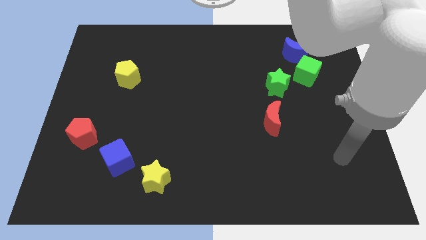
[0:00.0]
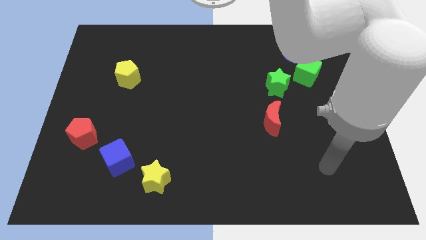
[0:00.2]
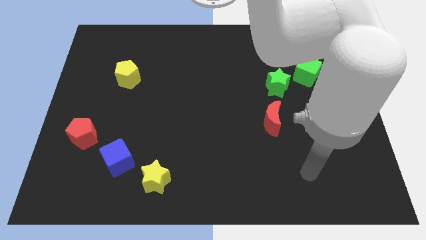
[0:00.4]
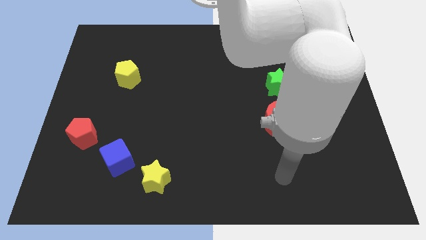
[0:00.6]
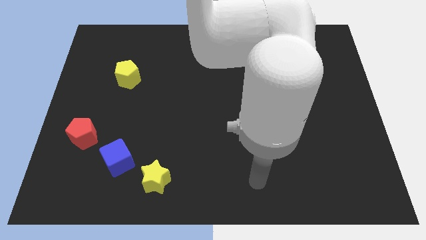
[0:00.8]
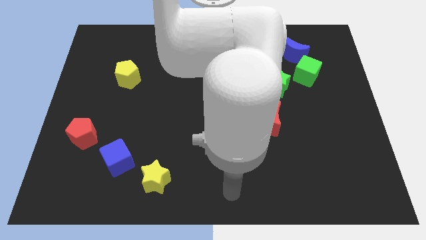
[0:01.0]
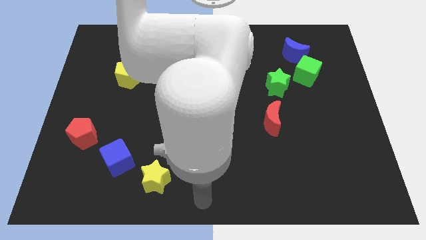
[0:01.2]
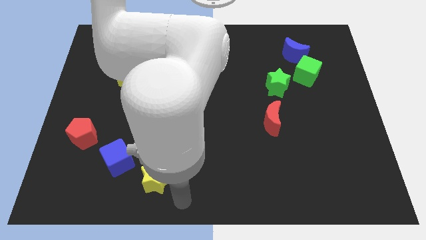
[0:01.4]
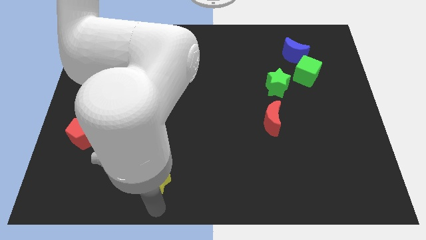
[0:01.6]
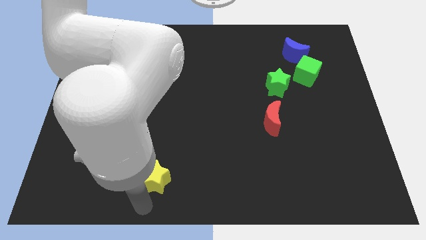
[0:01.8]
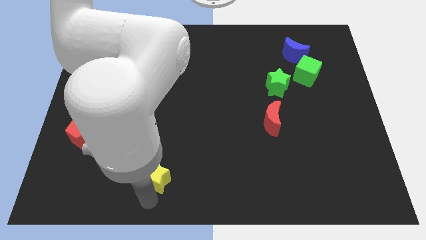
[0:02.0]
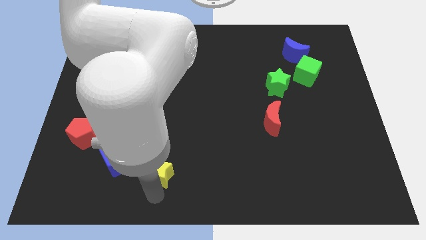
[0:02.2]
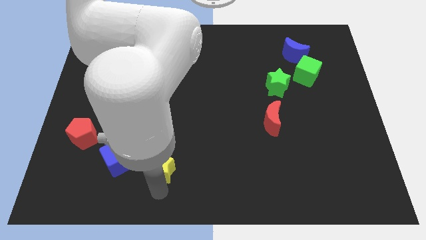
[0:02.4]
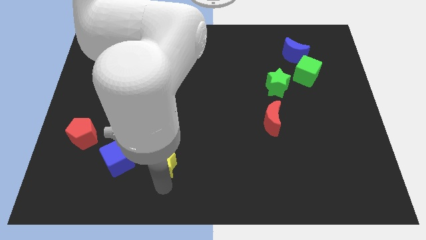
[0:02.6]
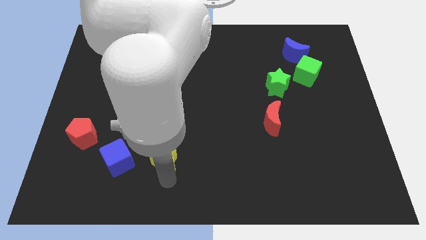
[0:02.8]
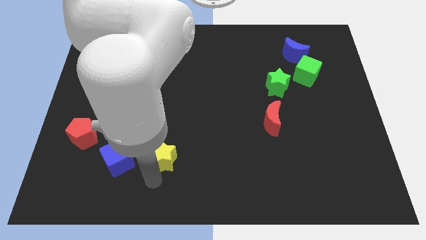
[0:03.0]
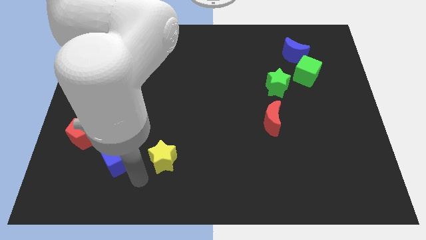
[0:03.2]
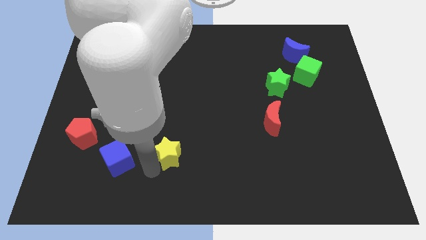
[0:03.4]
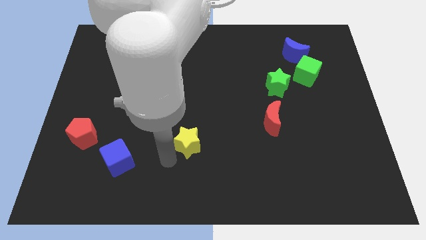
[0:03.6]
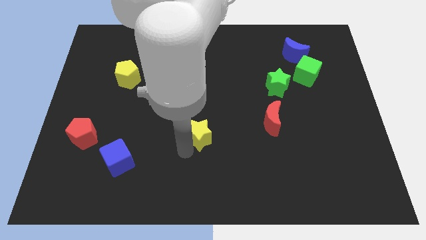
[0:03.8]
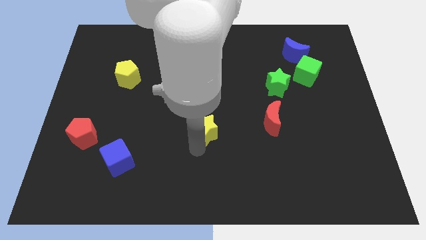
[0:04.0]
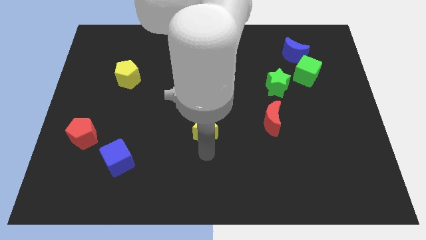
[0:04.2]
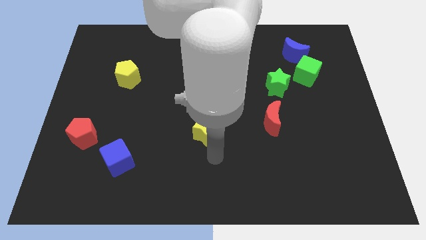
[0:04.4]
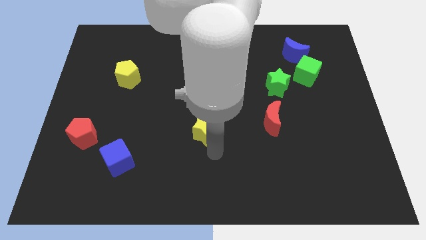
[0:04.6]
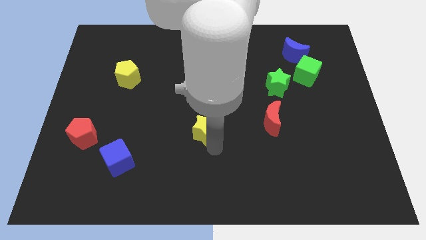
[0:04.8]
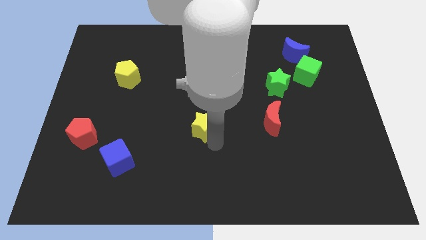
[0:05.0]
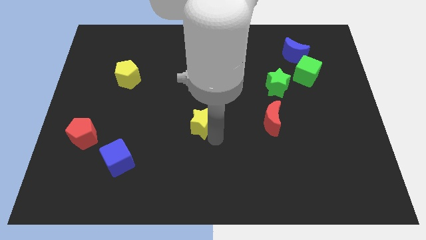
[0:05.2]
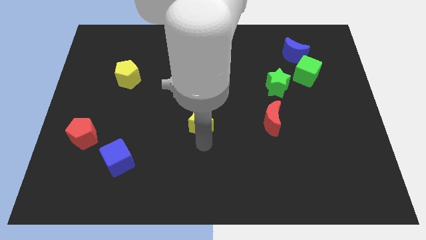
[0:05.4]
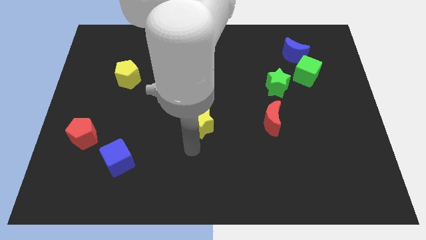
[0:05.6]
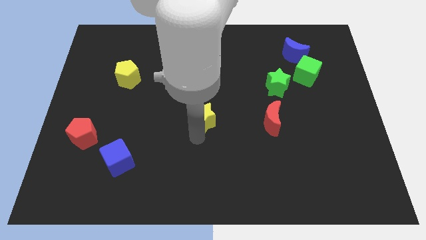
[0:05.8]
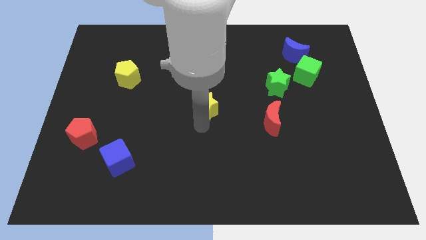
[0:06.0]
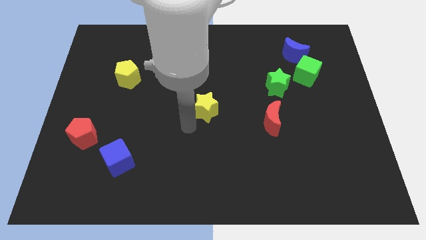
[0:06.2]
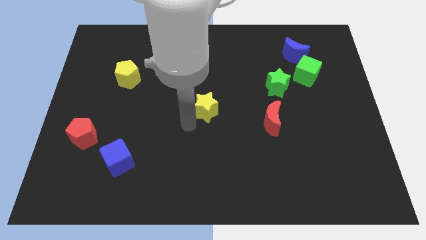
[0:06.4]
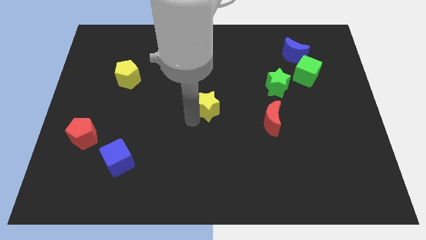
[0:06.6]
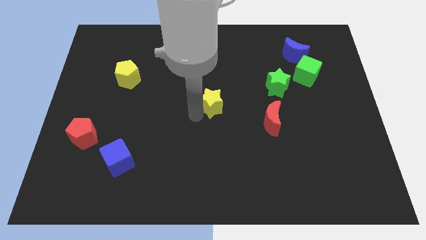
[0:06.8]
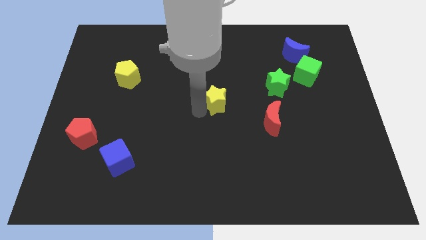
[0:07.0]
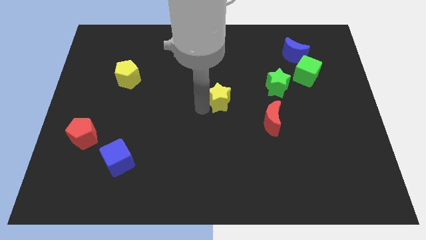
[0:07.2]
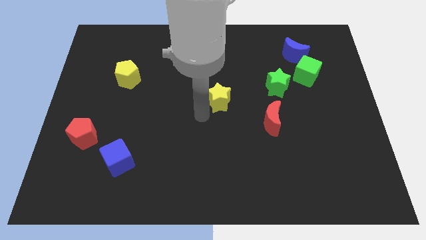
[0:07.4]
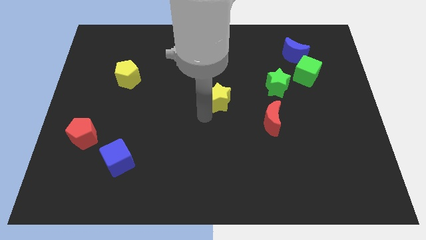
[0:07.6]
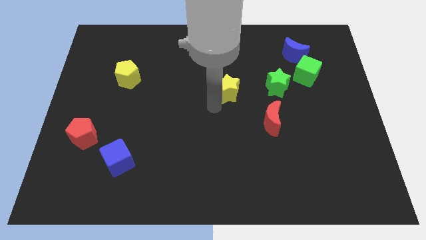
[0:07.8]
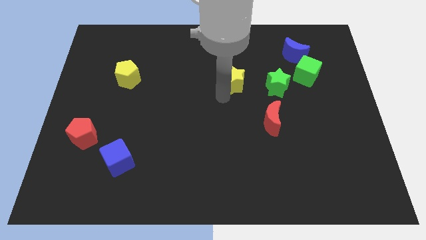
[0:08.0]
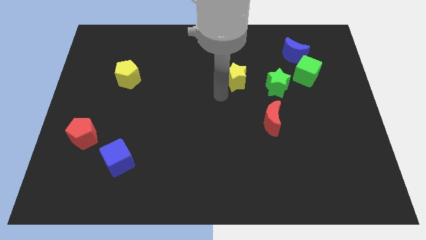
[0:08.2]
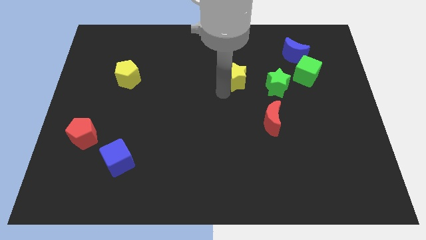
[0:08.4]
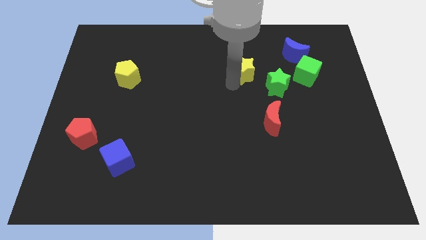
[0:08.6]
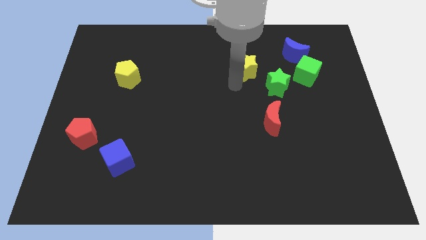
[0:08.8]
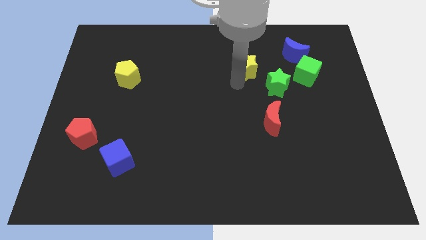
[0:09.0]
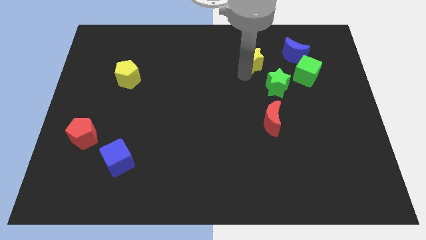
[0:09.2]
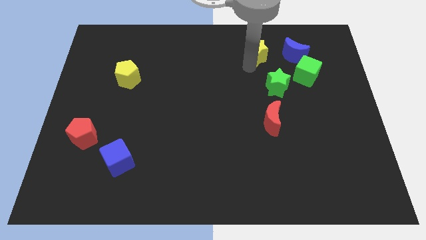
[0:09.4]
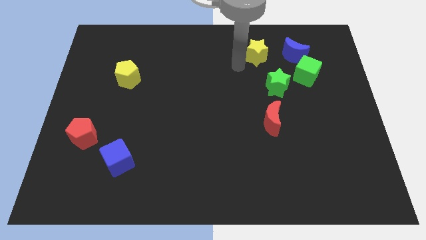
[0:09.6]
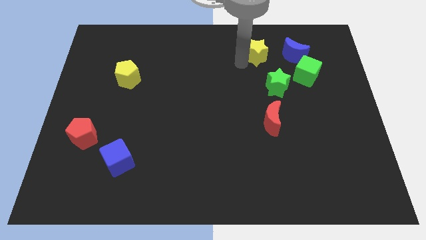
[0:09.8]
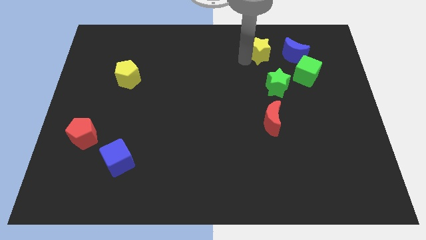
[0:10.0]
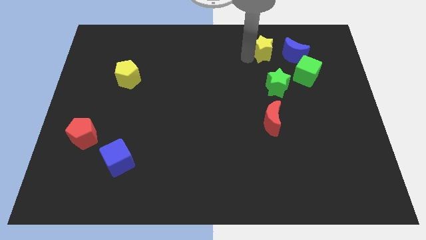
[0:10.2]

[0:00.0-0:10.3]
push the yellow star diagonally up and to the left of the green cube
